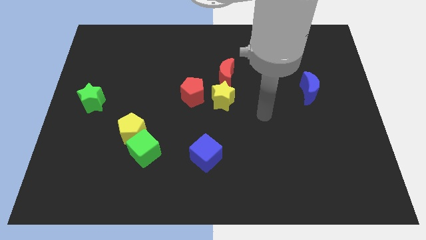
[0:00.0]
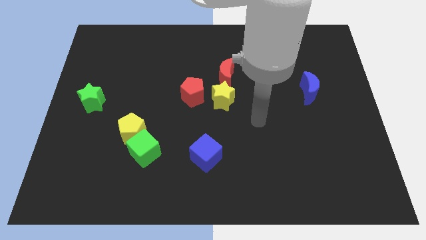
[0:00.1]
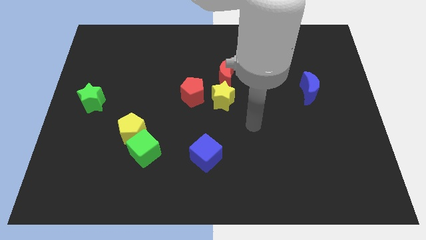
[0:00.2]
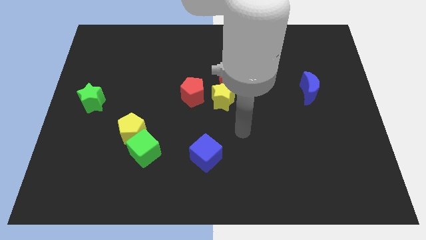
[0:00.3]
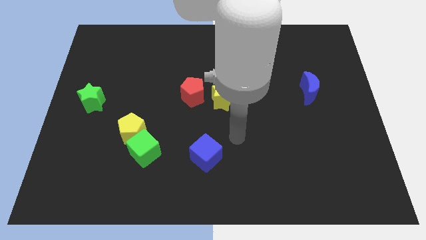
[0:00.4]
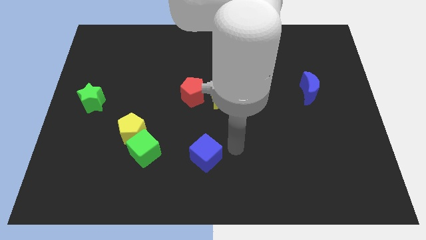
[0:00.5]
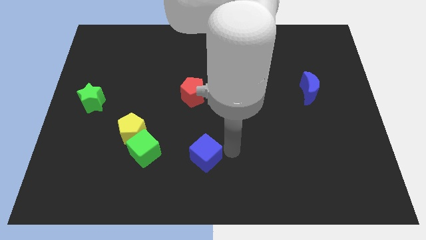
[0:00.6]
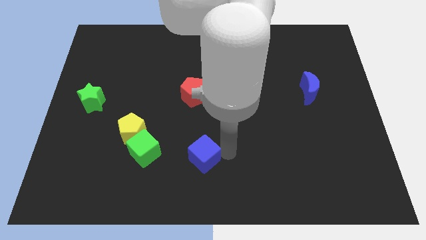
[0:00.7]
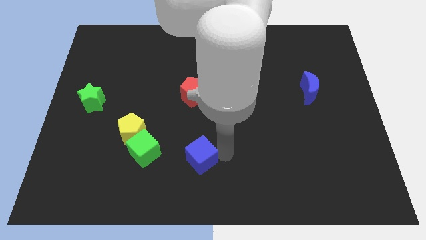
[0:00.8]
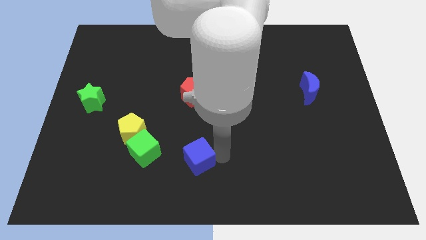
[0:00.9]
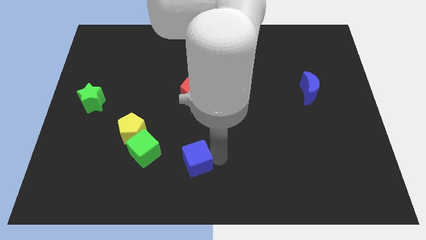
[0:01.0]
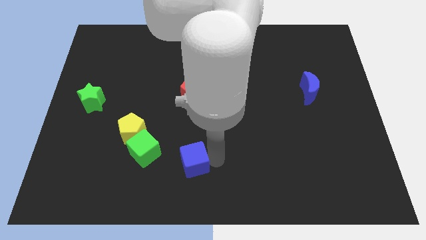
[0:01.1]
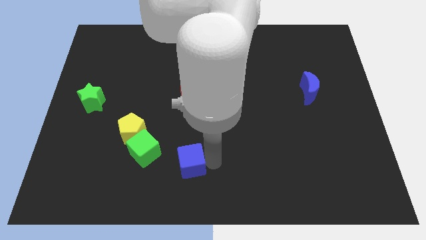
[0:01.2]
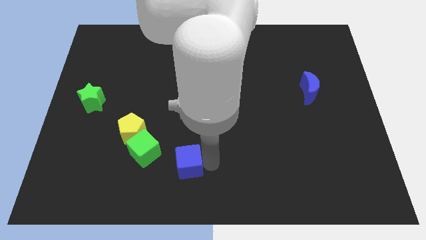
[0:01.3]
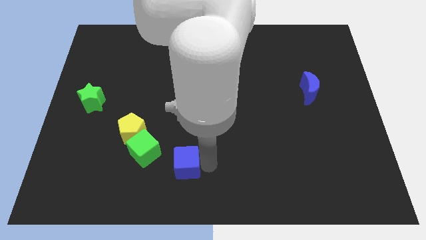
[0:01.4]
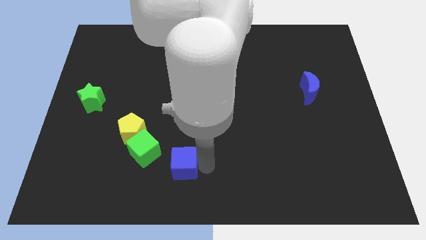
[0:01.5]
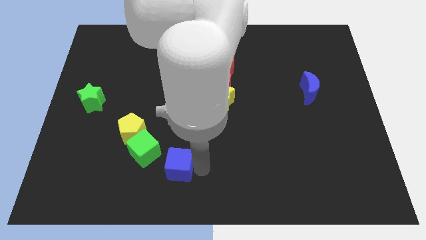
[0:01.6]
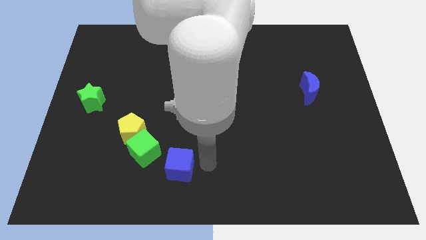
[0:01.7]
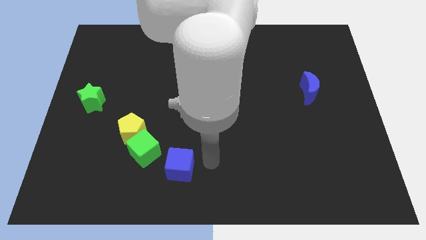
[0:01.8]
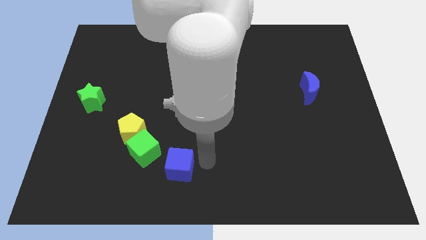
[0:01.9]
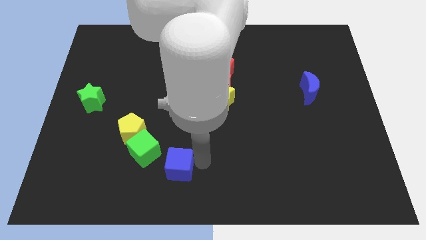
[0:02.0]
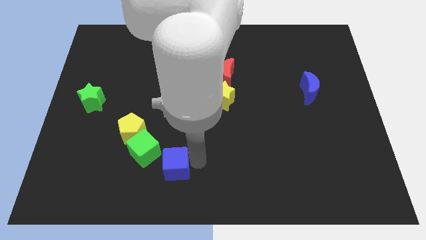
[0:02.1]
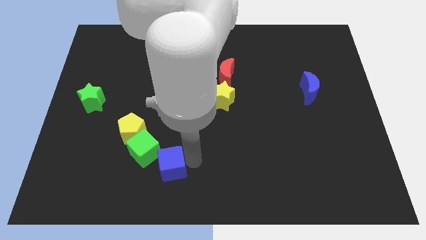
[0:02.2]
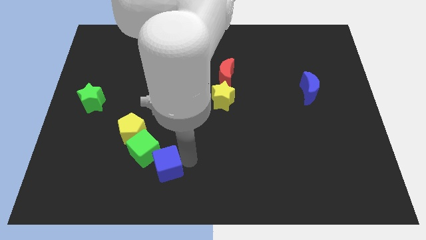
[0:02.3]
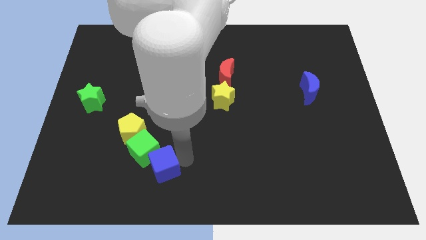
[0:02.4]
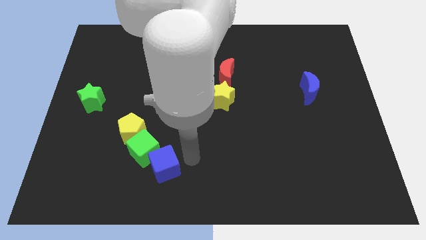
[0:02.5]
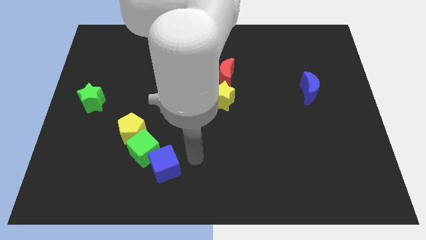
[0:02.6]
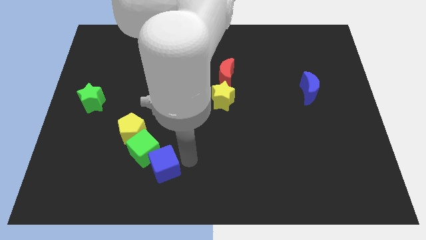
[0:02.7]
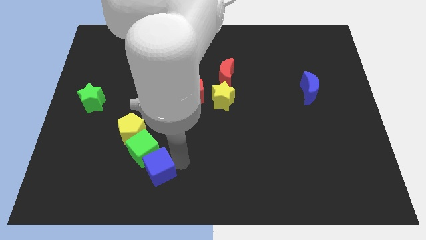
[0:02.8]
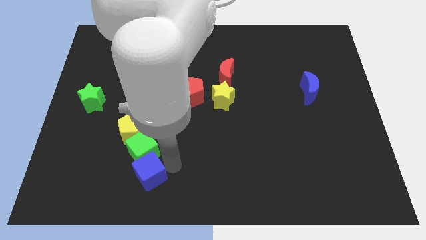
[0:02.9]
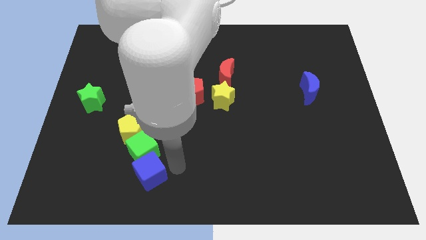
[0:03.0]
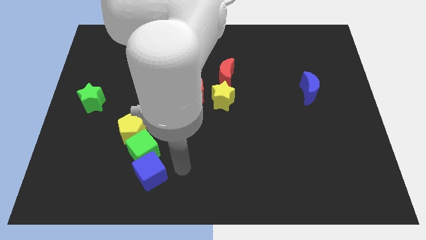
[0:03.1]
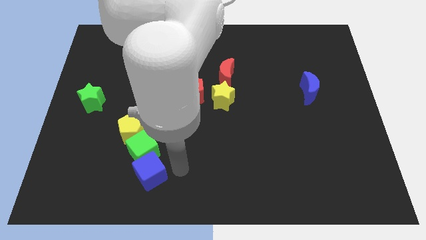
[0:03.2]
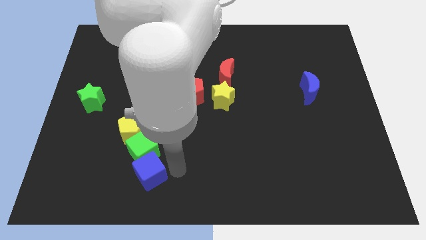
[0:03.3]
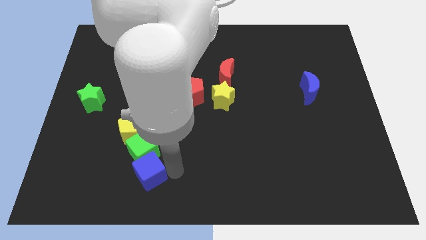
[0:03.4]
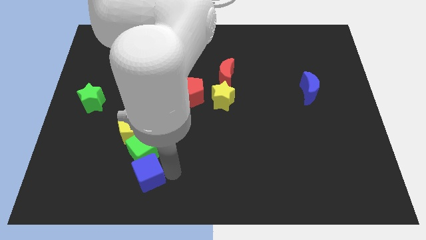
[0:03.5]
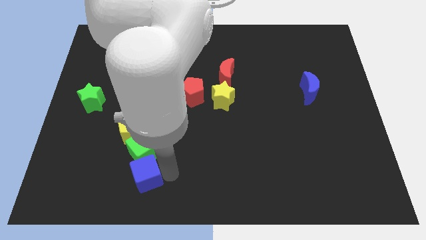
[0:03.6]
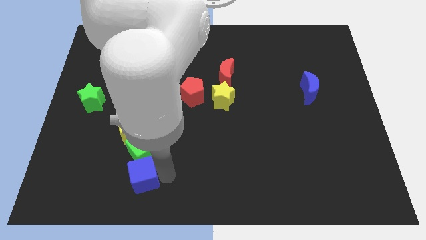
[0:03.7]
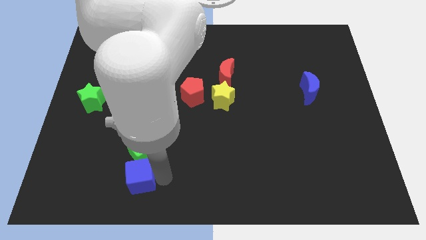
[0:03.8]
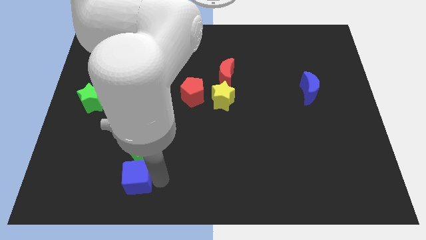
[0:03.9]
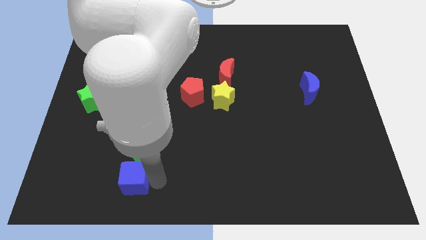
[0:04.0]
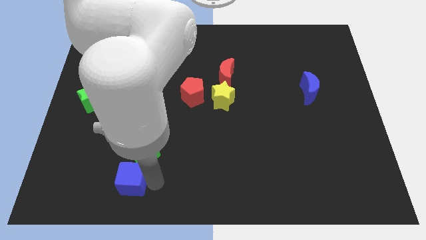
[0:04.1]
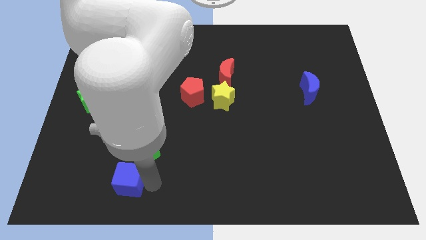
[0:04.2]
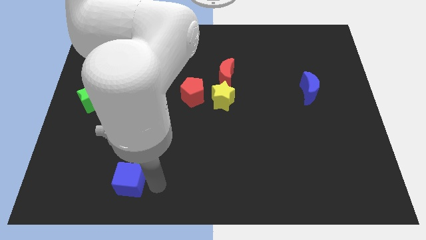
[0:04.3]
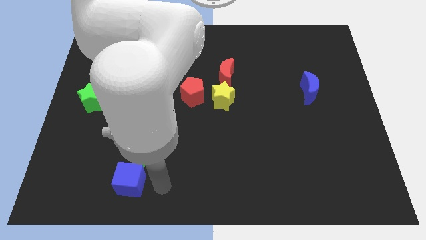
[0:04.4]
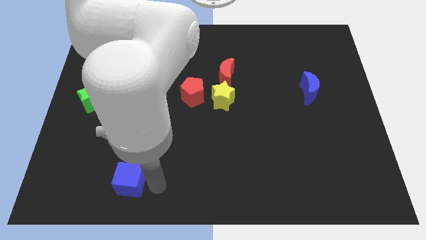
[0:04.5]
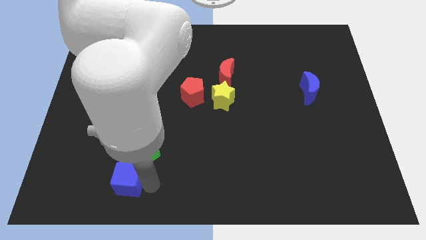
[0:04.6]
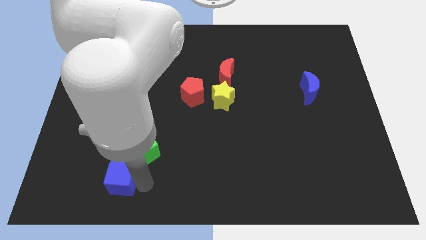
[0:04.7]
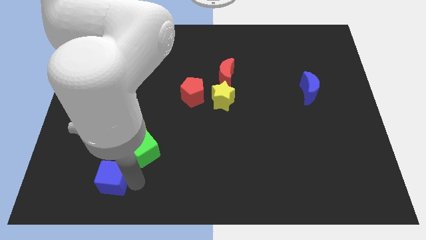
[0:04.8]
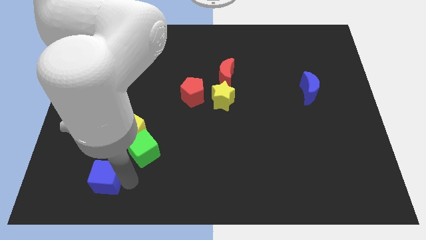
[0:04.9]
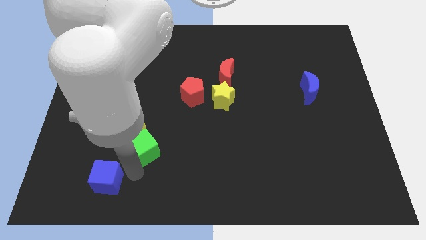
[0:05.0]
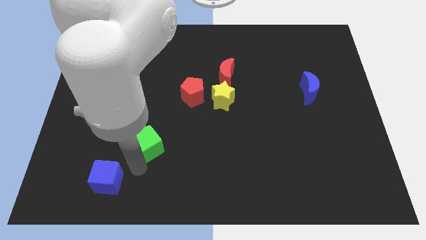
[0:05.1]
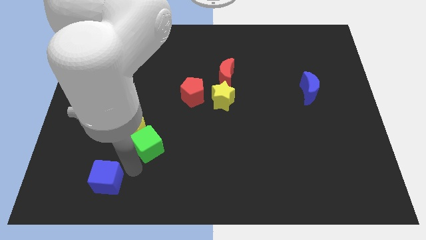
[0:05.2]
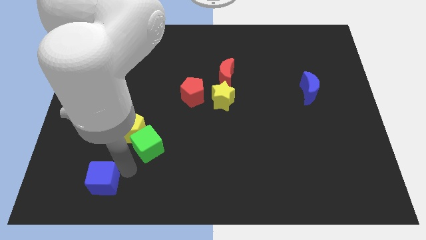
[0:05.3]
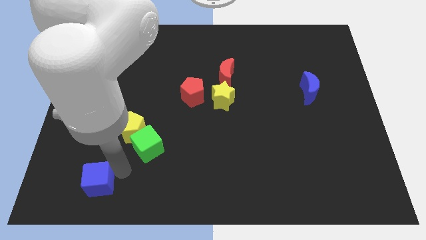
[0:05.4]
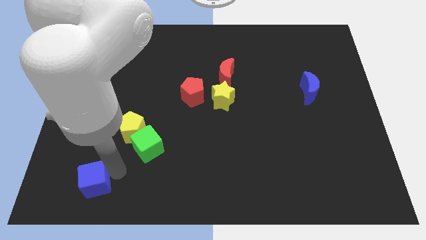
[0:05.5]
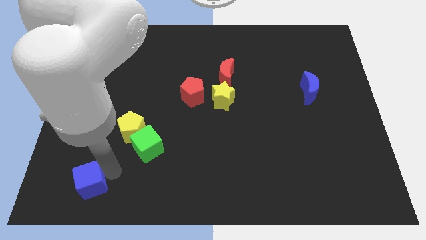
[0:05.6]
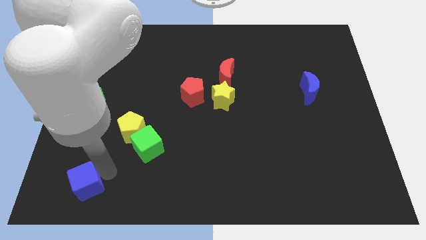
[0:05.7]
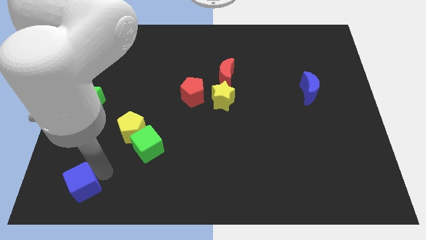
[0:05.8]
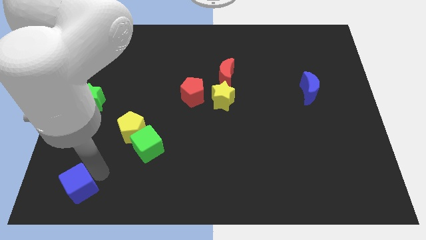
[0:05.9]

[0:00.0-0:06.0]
slide the blue cube to the lower left corner
